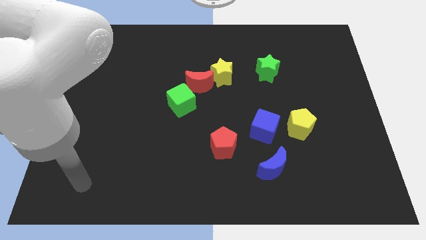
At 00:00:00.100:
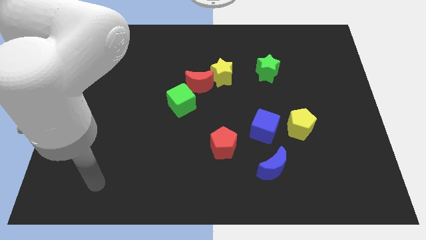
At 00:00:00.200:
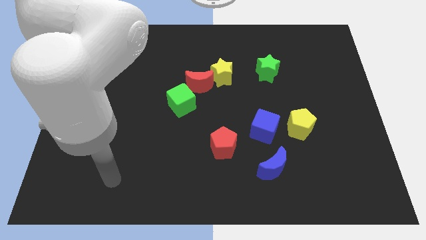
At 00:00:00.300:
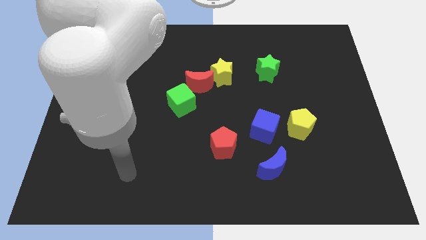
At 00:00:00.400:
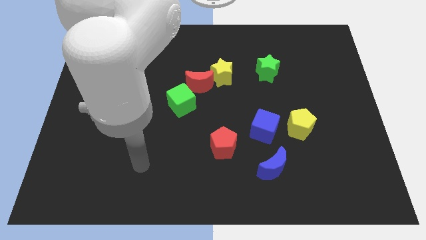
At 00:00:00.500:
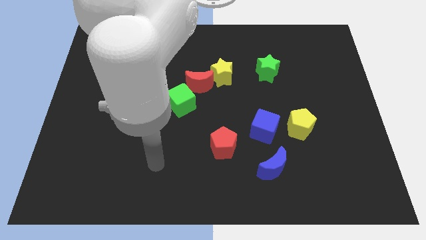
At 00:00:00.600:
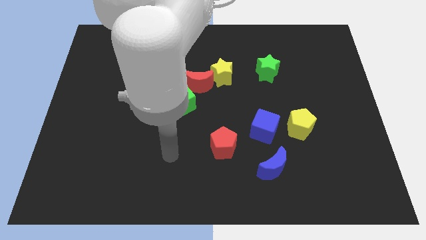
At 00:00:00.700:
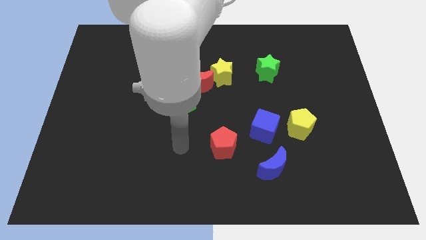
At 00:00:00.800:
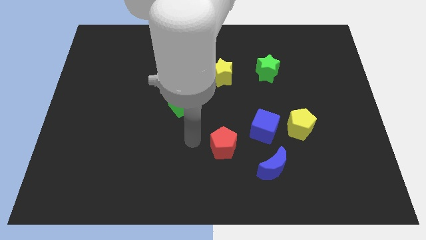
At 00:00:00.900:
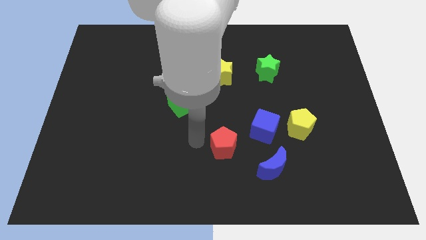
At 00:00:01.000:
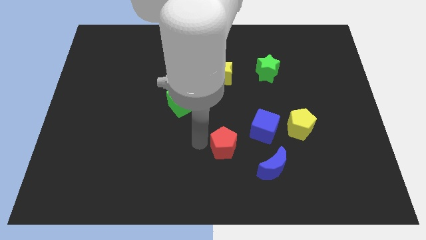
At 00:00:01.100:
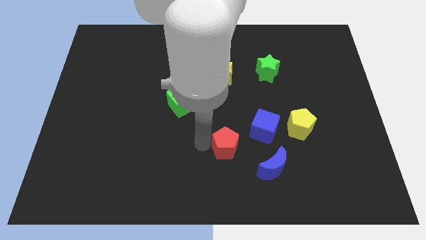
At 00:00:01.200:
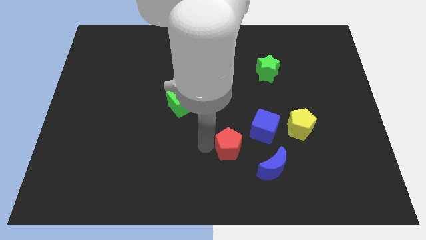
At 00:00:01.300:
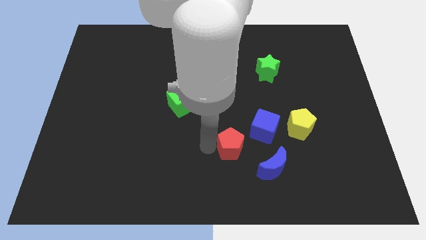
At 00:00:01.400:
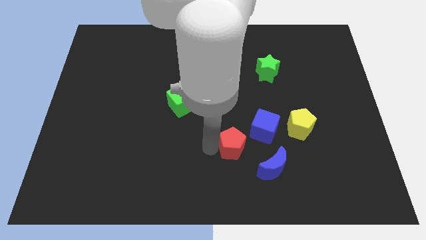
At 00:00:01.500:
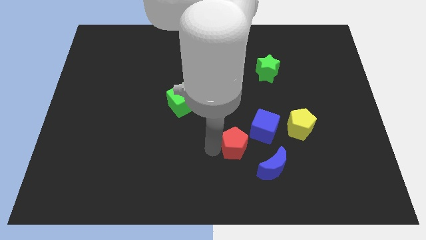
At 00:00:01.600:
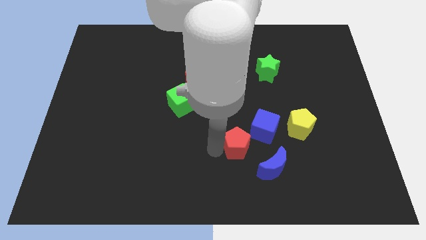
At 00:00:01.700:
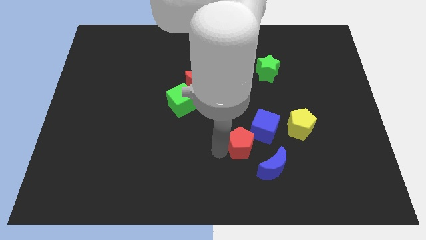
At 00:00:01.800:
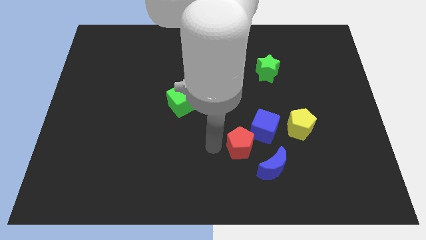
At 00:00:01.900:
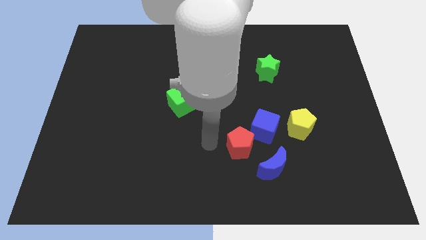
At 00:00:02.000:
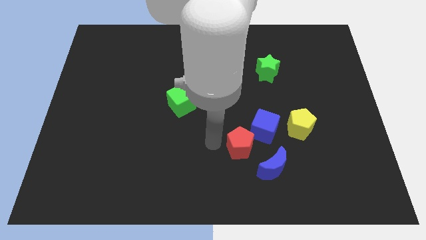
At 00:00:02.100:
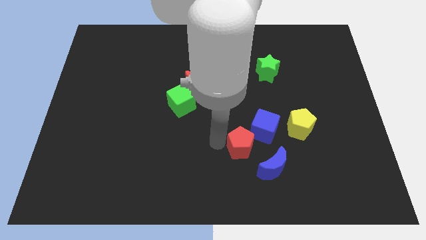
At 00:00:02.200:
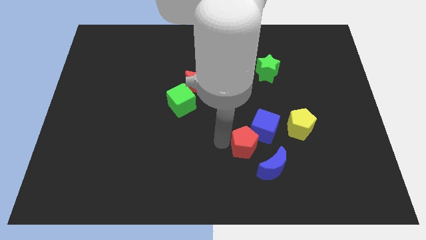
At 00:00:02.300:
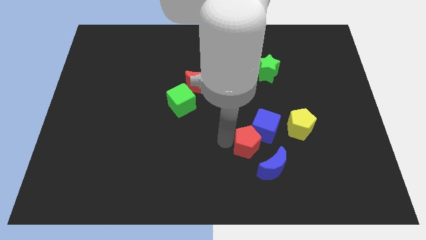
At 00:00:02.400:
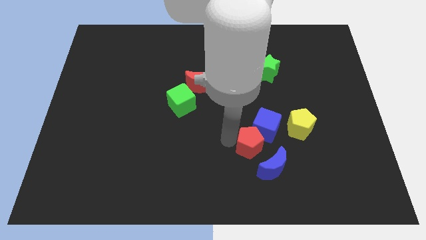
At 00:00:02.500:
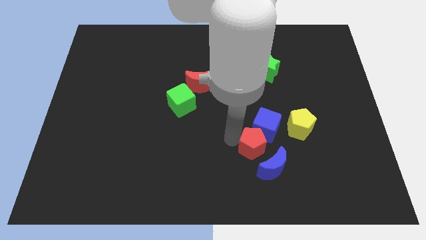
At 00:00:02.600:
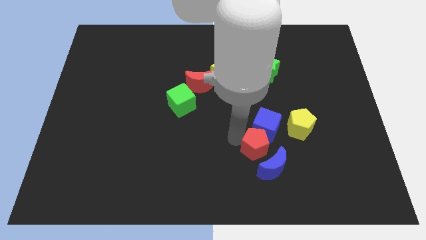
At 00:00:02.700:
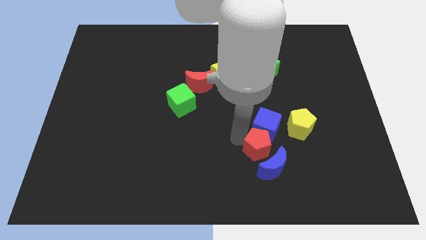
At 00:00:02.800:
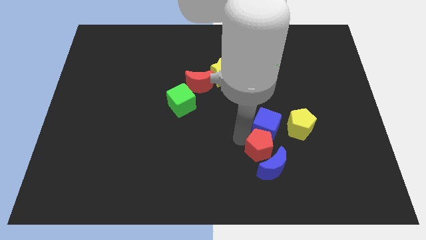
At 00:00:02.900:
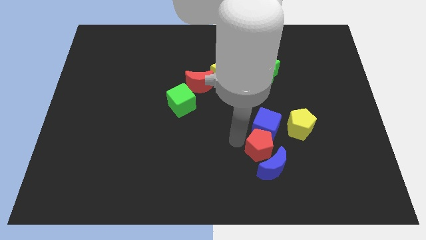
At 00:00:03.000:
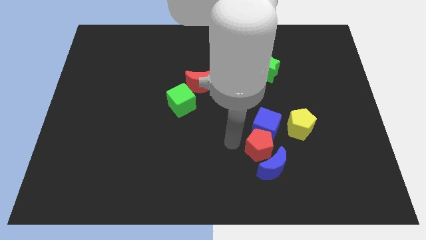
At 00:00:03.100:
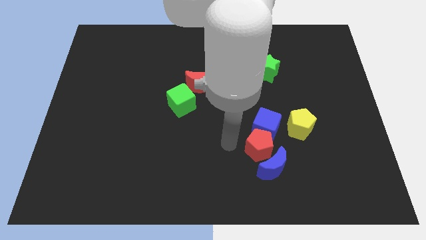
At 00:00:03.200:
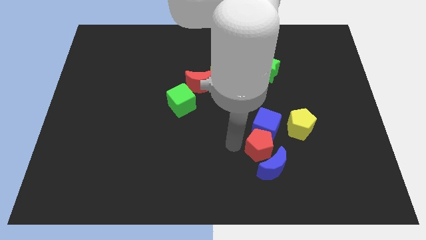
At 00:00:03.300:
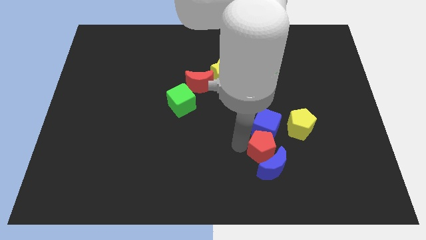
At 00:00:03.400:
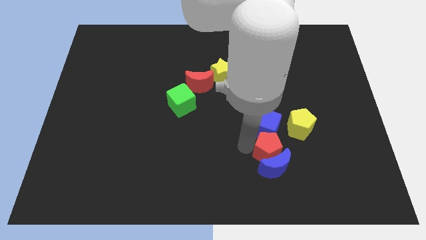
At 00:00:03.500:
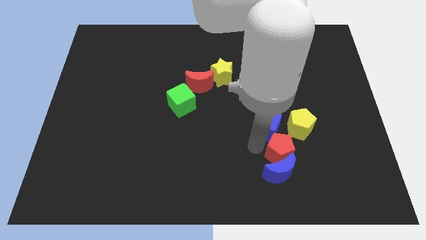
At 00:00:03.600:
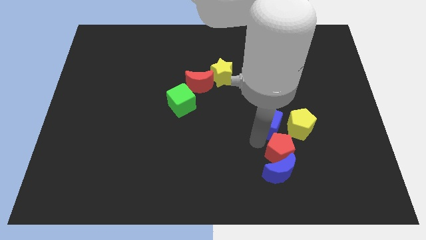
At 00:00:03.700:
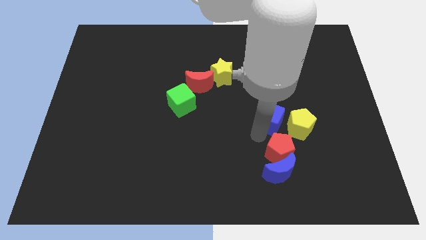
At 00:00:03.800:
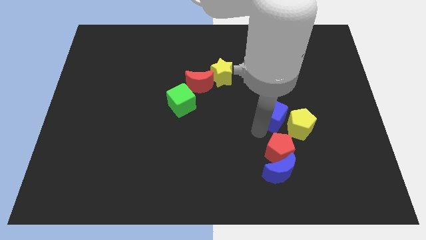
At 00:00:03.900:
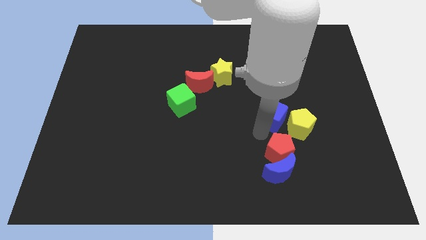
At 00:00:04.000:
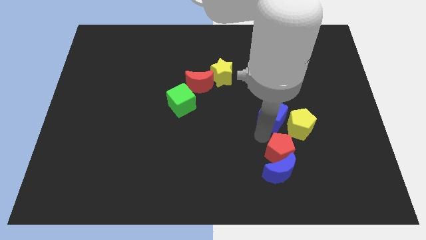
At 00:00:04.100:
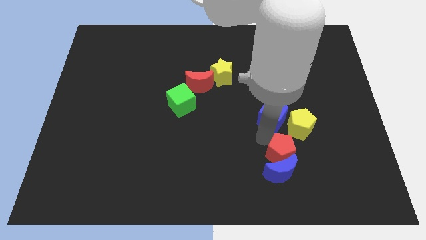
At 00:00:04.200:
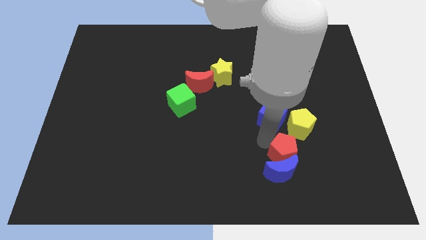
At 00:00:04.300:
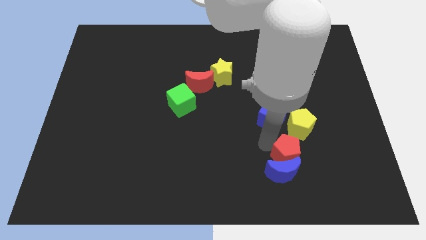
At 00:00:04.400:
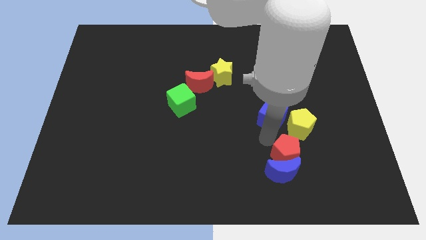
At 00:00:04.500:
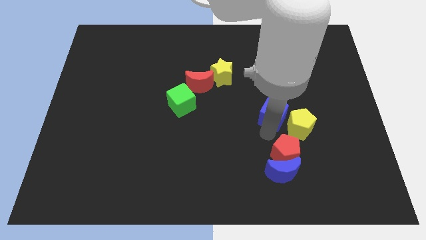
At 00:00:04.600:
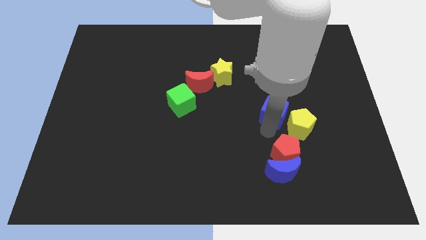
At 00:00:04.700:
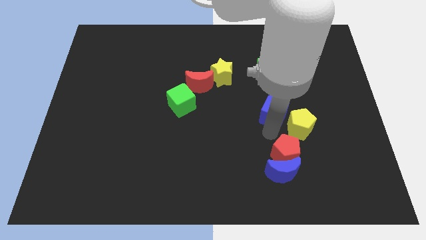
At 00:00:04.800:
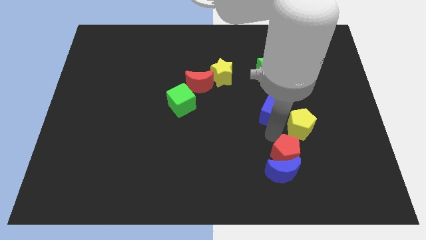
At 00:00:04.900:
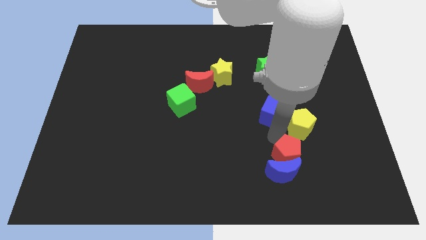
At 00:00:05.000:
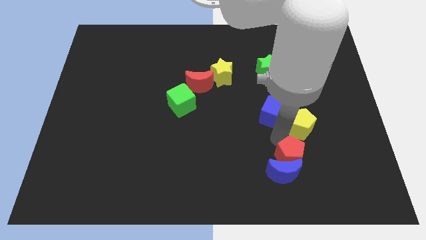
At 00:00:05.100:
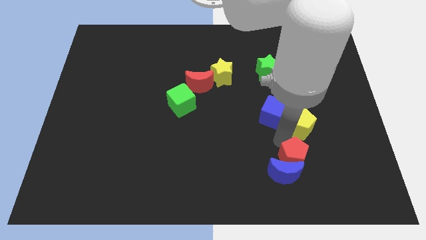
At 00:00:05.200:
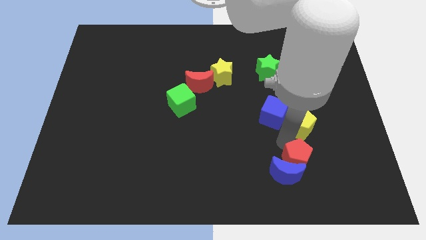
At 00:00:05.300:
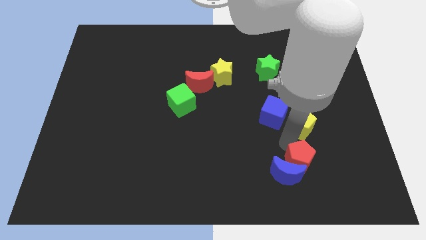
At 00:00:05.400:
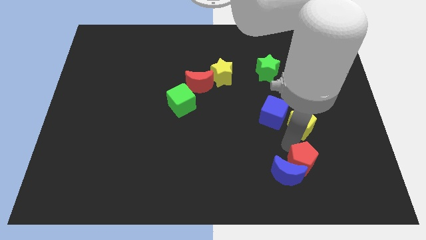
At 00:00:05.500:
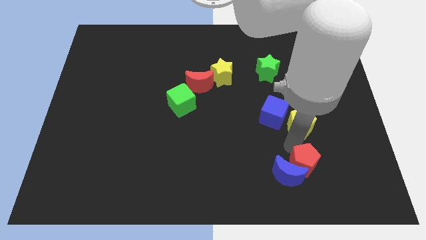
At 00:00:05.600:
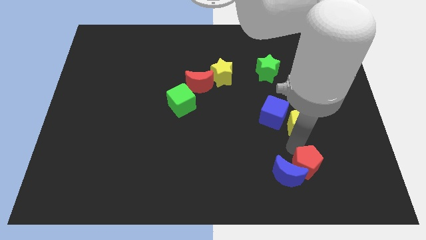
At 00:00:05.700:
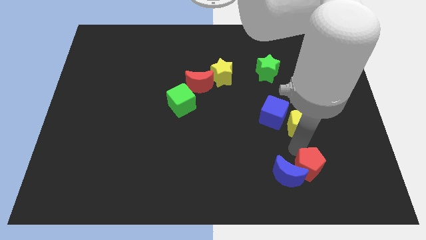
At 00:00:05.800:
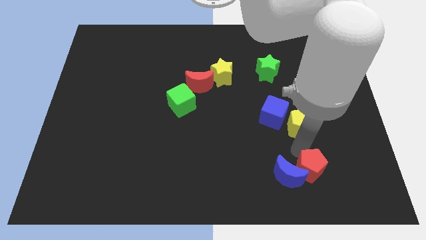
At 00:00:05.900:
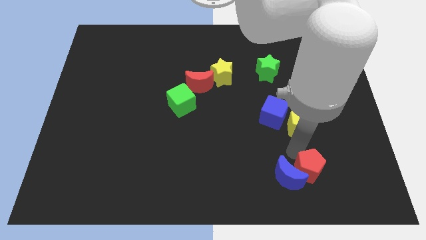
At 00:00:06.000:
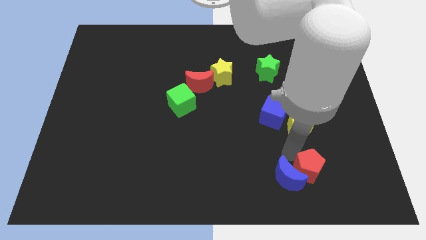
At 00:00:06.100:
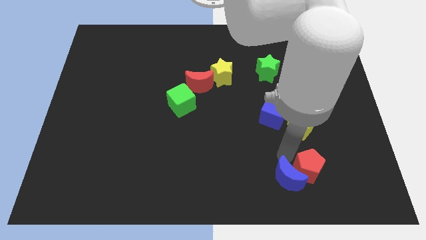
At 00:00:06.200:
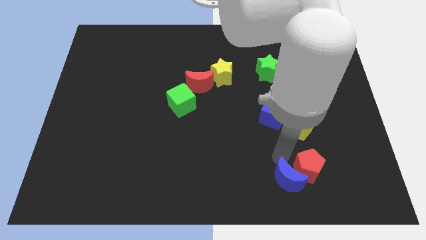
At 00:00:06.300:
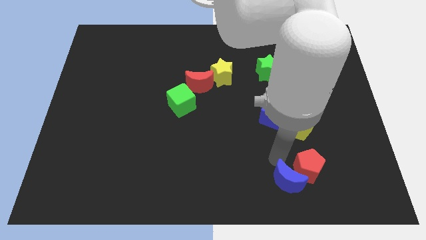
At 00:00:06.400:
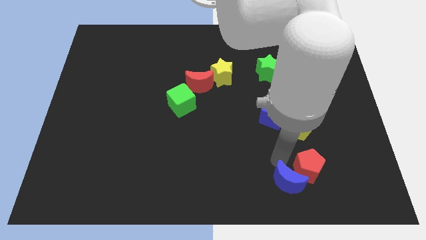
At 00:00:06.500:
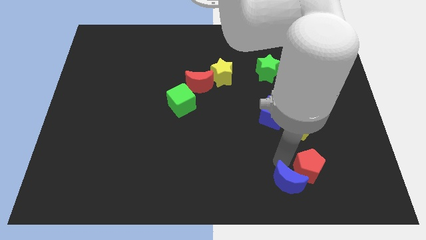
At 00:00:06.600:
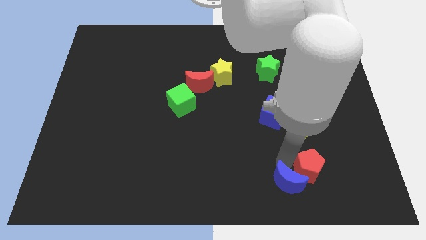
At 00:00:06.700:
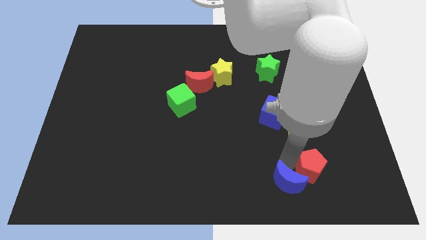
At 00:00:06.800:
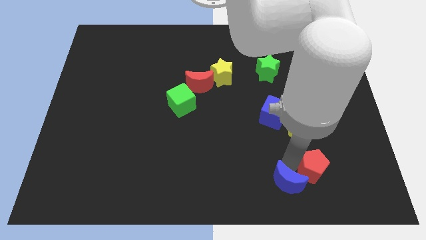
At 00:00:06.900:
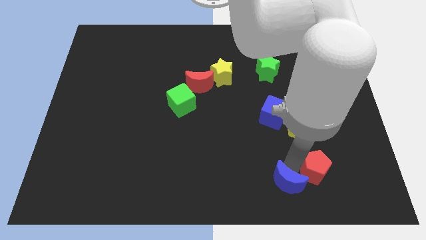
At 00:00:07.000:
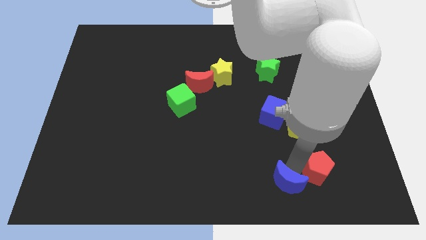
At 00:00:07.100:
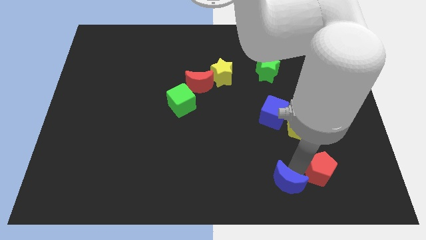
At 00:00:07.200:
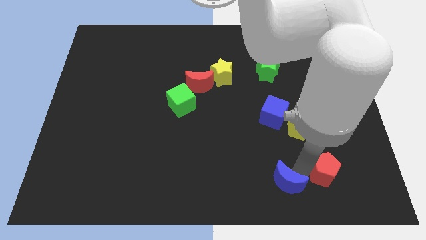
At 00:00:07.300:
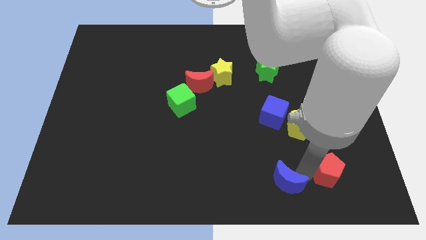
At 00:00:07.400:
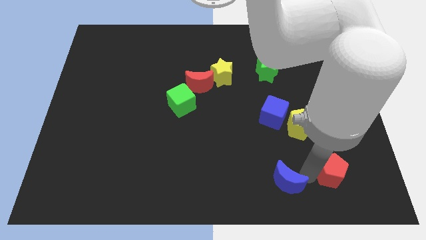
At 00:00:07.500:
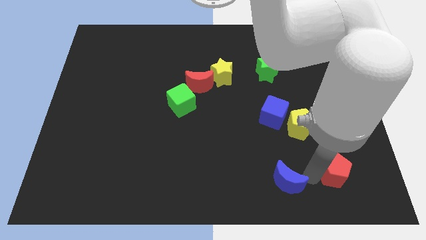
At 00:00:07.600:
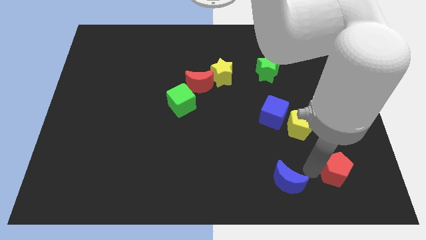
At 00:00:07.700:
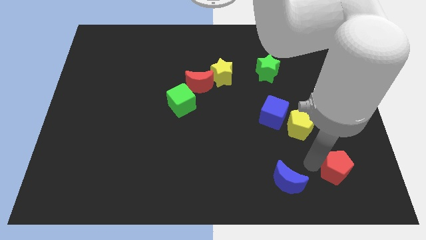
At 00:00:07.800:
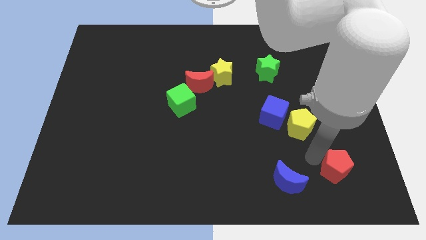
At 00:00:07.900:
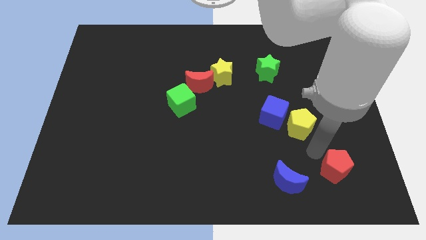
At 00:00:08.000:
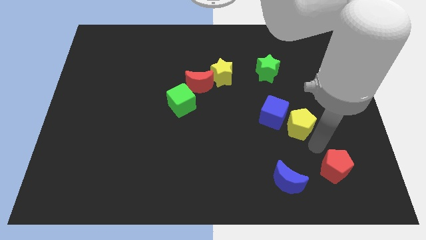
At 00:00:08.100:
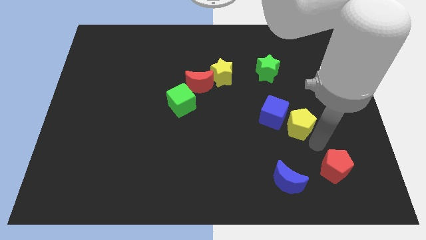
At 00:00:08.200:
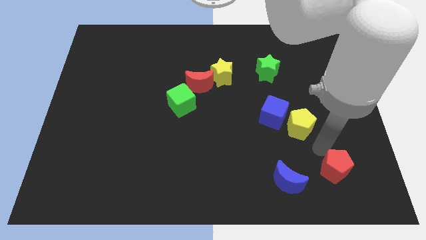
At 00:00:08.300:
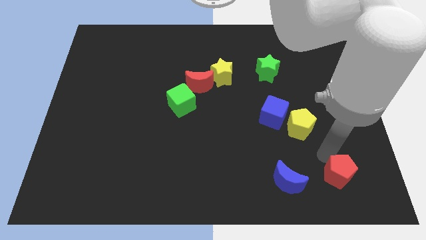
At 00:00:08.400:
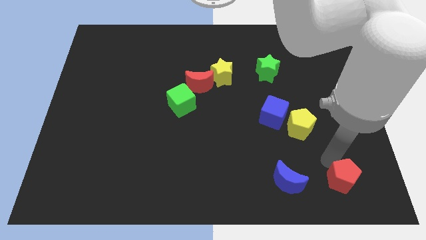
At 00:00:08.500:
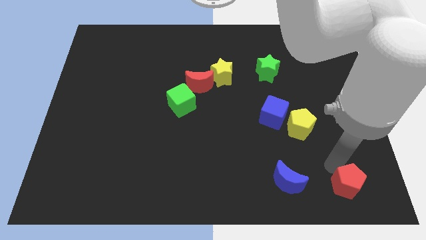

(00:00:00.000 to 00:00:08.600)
move the red pentagon to the bottom right
